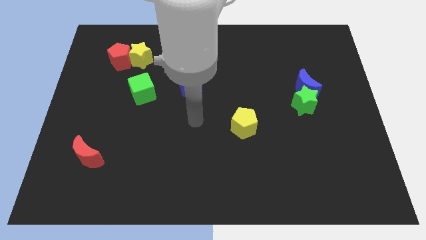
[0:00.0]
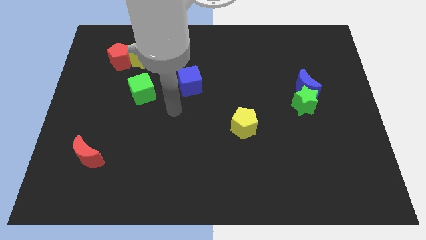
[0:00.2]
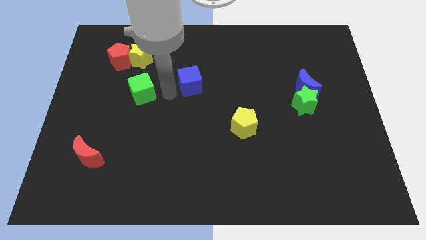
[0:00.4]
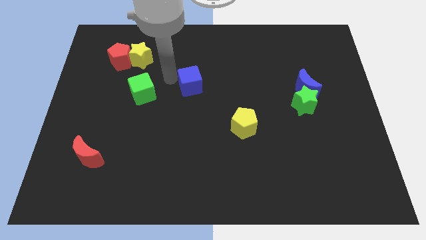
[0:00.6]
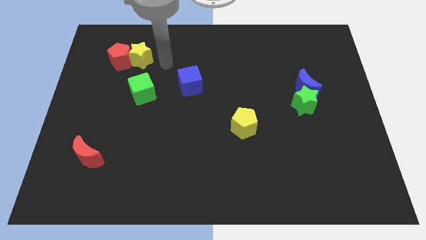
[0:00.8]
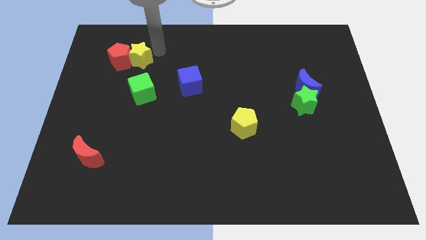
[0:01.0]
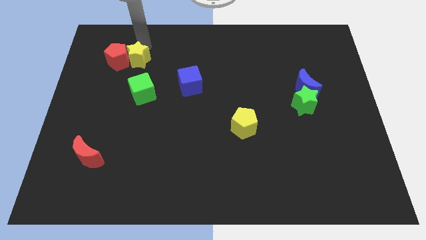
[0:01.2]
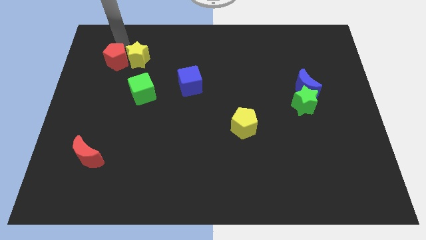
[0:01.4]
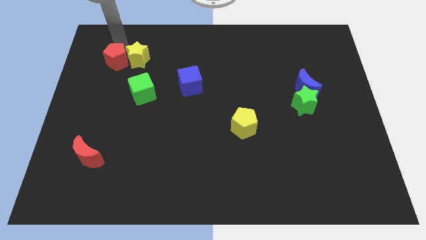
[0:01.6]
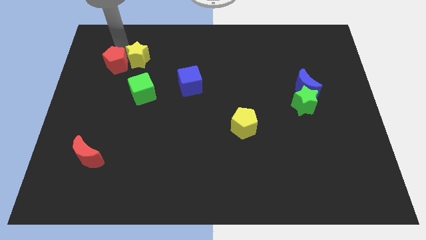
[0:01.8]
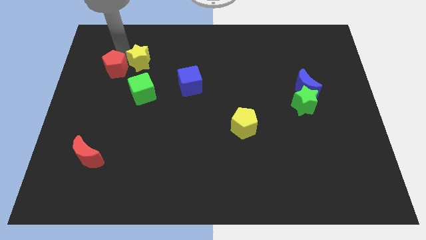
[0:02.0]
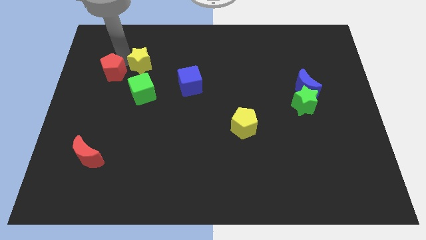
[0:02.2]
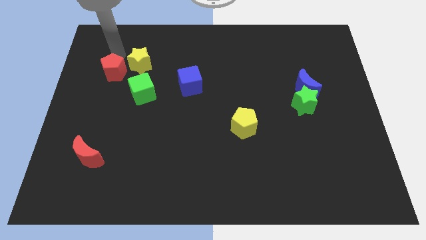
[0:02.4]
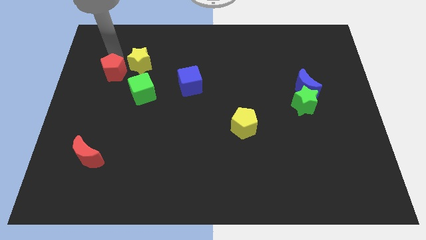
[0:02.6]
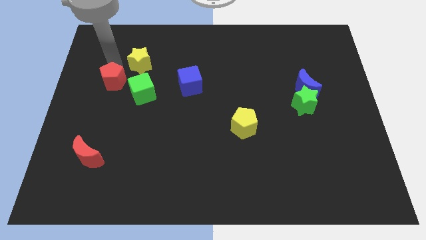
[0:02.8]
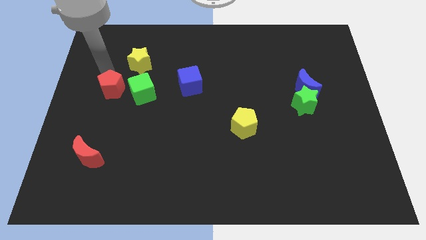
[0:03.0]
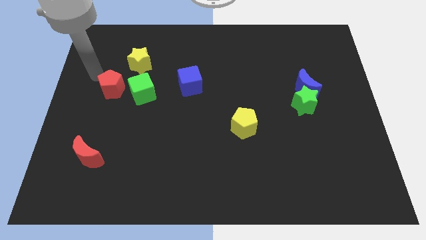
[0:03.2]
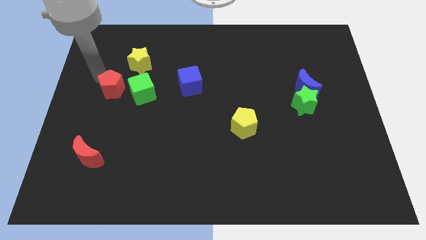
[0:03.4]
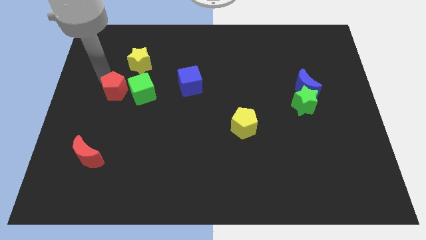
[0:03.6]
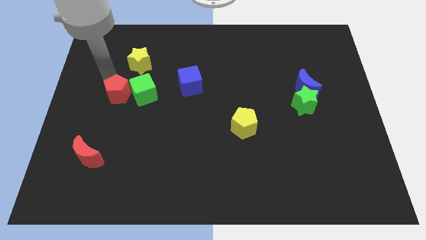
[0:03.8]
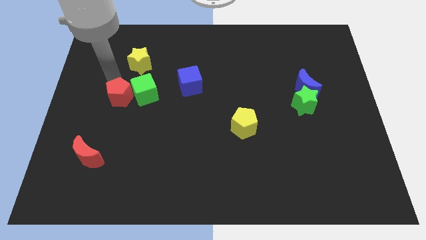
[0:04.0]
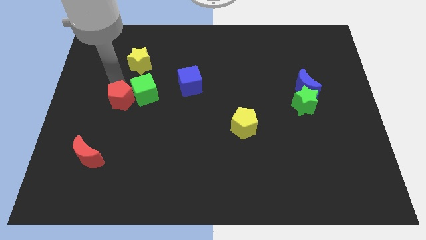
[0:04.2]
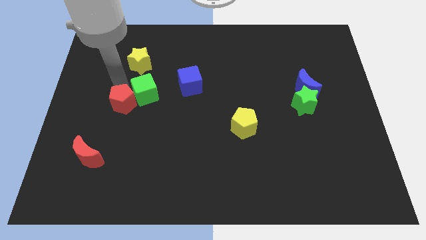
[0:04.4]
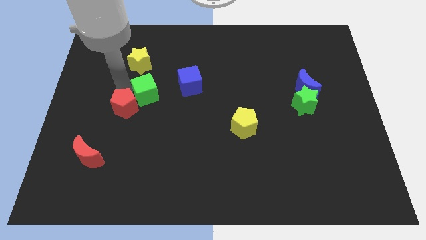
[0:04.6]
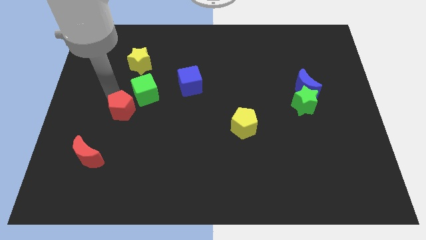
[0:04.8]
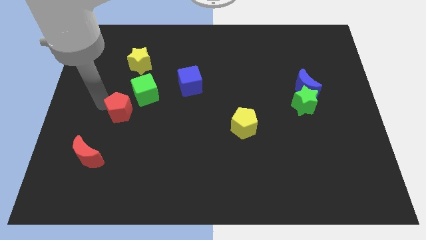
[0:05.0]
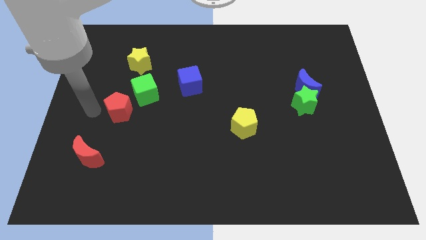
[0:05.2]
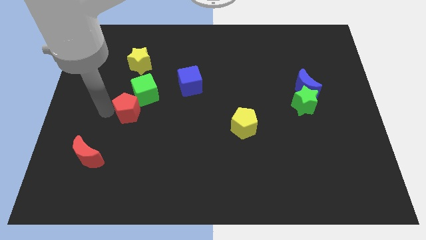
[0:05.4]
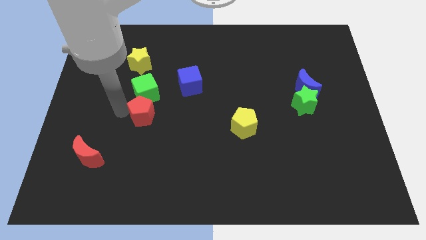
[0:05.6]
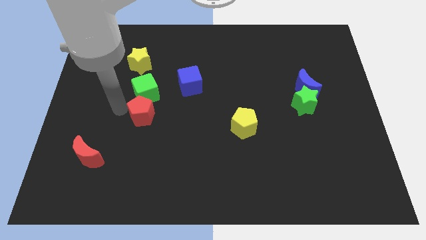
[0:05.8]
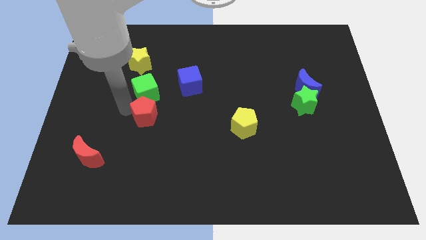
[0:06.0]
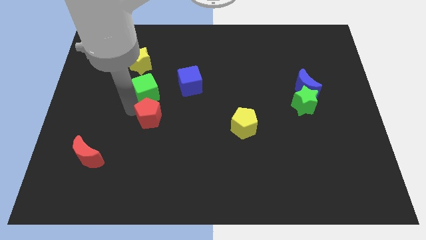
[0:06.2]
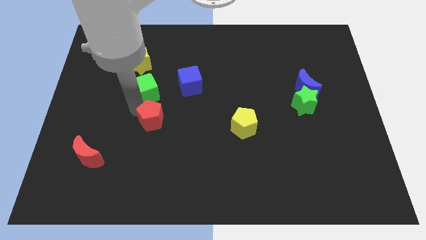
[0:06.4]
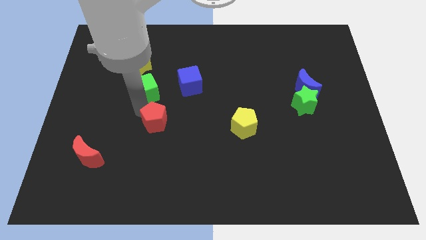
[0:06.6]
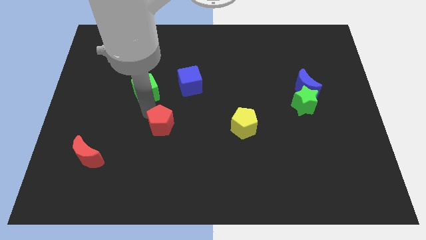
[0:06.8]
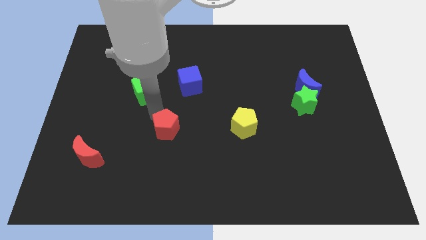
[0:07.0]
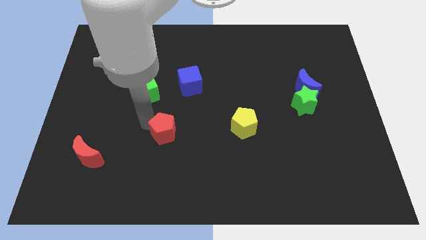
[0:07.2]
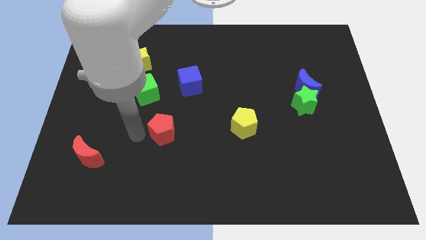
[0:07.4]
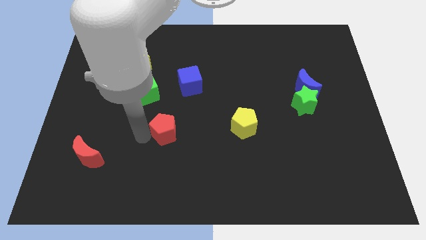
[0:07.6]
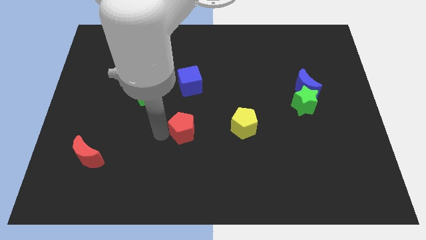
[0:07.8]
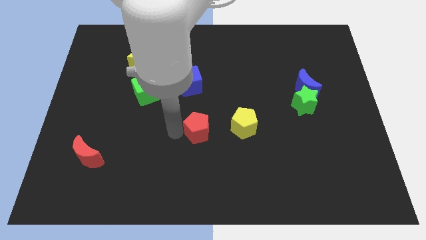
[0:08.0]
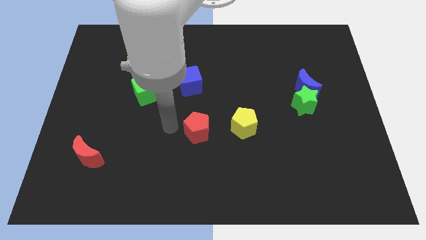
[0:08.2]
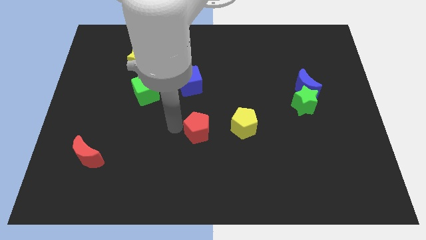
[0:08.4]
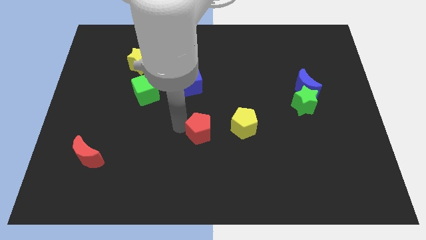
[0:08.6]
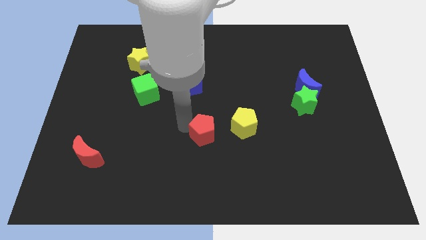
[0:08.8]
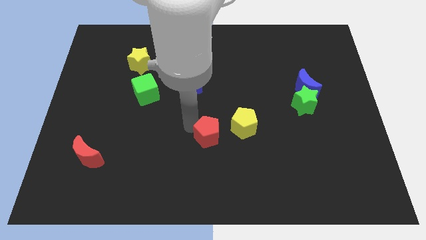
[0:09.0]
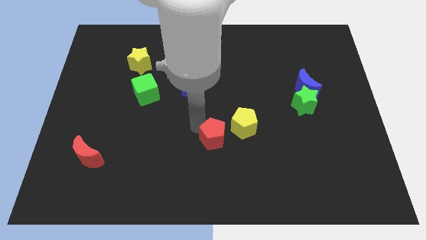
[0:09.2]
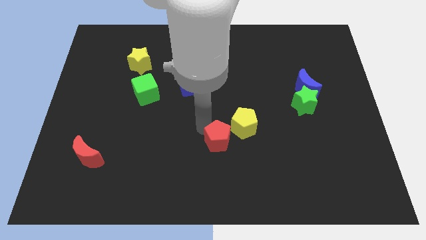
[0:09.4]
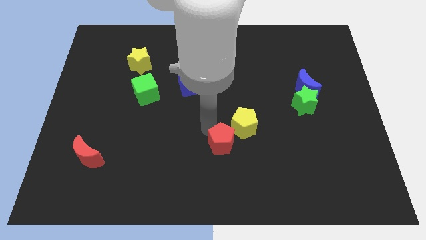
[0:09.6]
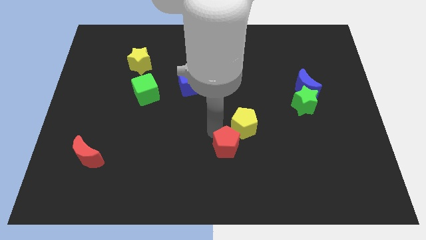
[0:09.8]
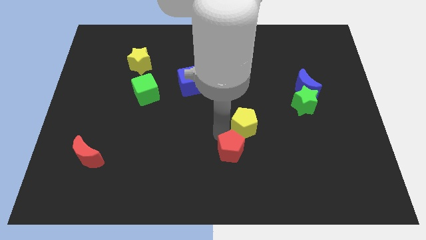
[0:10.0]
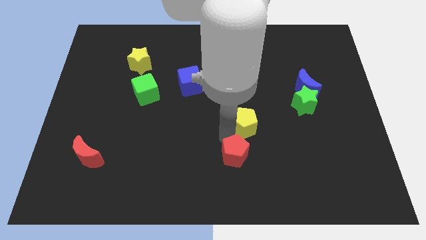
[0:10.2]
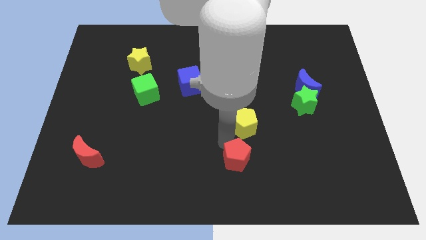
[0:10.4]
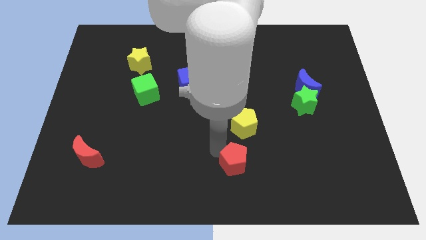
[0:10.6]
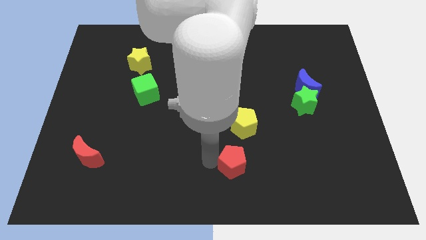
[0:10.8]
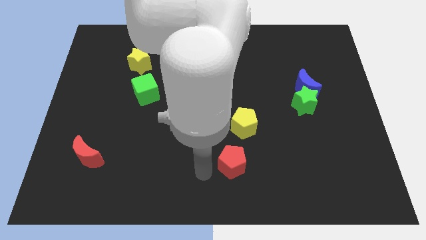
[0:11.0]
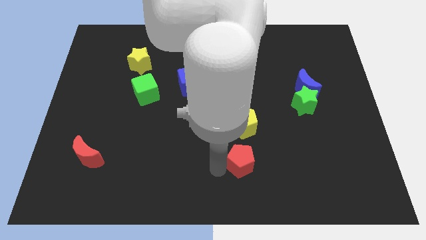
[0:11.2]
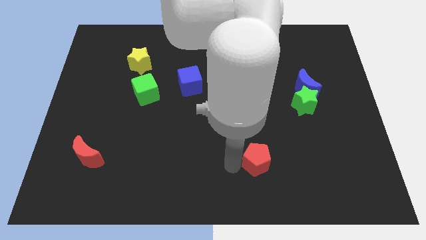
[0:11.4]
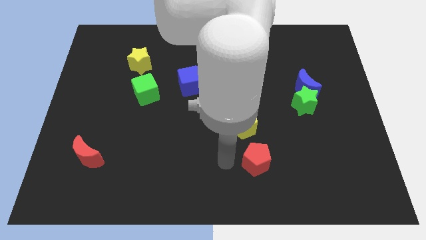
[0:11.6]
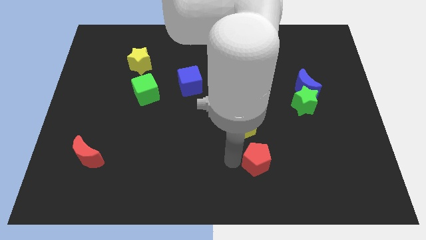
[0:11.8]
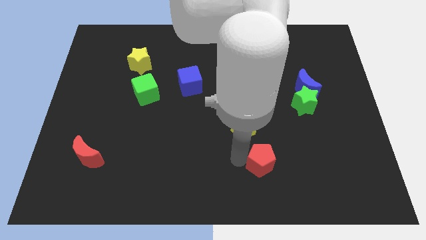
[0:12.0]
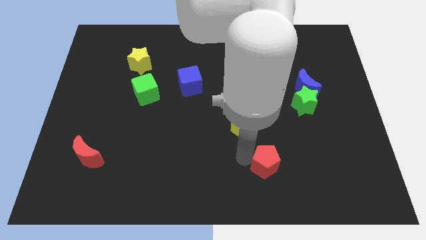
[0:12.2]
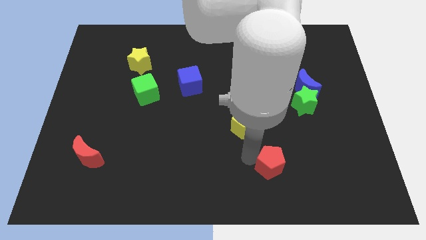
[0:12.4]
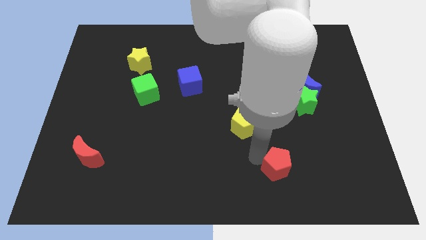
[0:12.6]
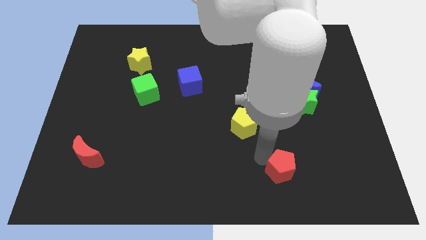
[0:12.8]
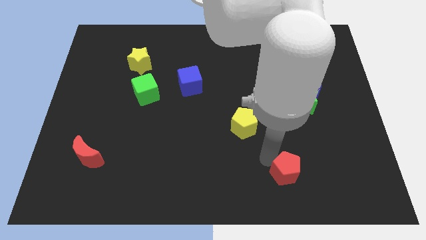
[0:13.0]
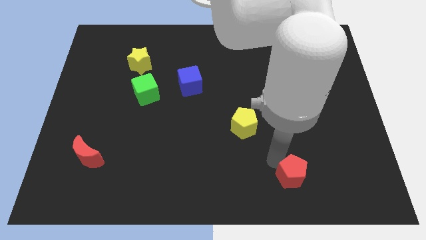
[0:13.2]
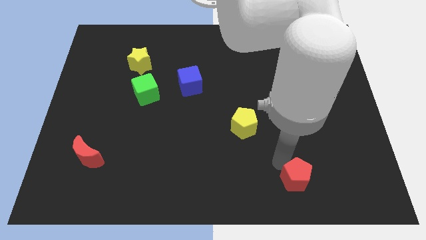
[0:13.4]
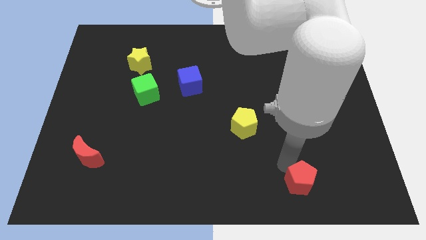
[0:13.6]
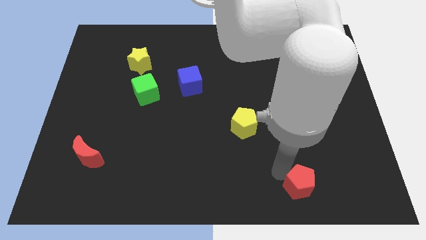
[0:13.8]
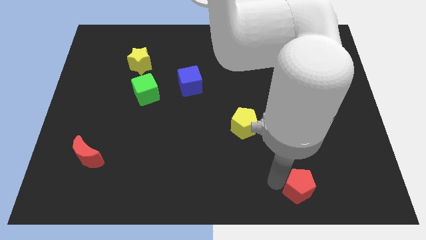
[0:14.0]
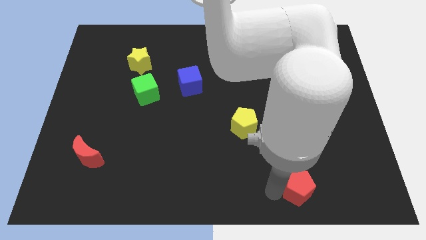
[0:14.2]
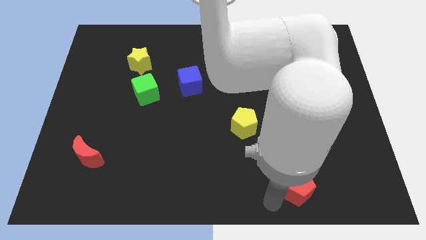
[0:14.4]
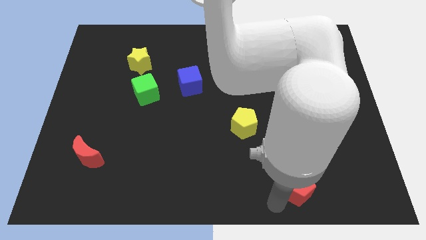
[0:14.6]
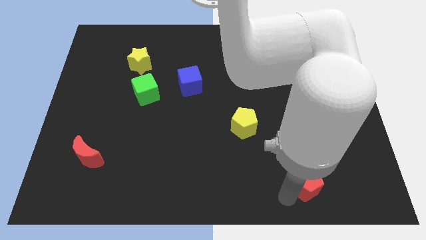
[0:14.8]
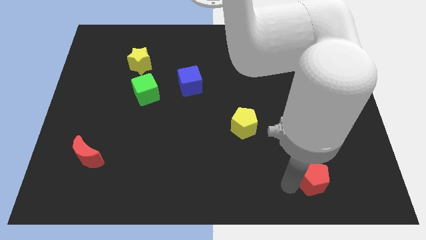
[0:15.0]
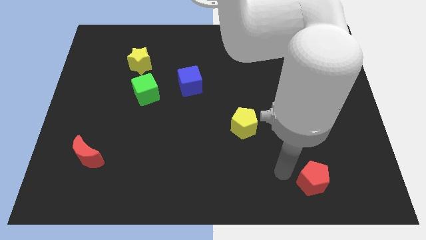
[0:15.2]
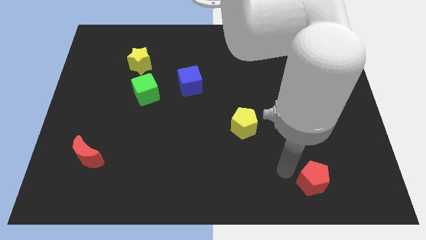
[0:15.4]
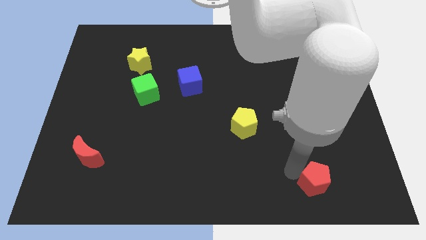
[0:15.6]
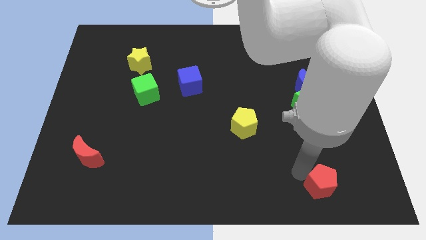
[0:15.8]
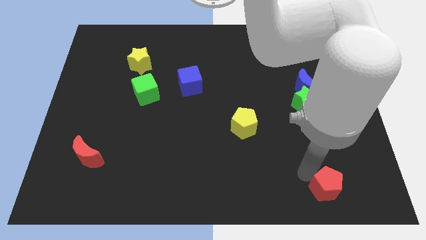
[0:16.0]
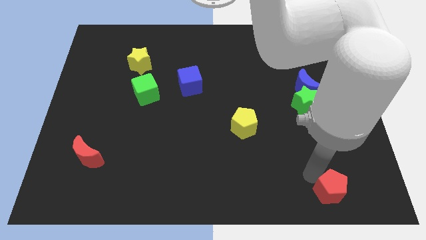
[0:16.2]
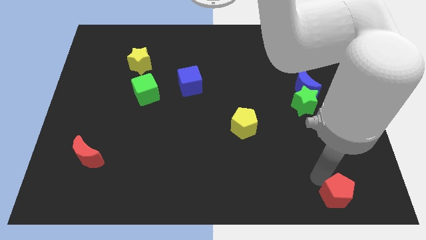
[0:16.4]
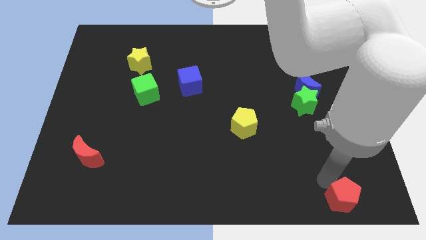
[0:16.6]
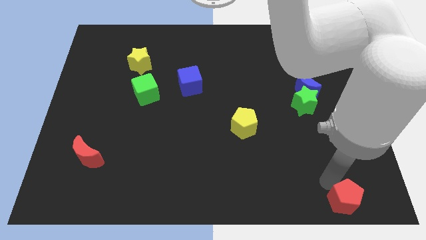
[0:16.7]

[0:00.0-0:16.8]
move the red pentagon to the bottom right of the board
